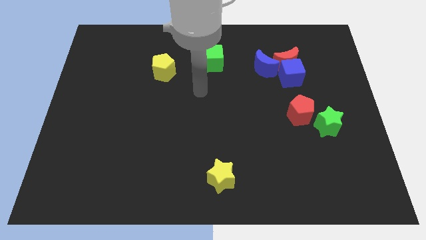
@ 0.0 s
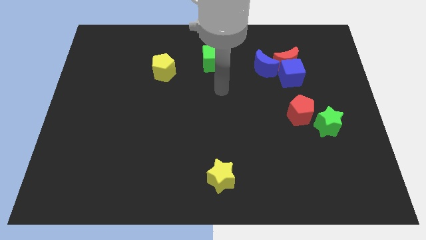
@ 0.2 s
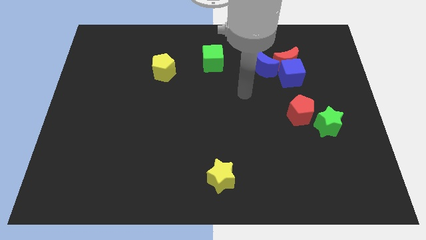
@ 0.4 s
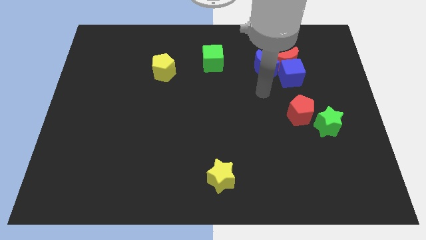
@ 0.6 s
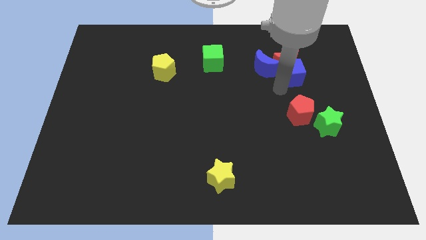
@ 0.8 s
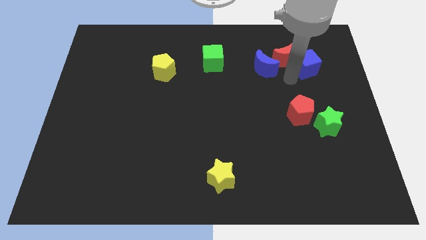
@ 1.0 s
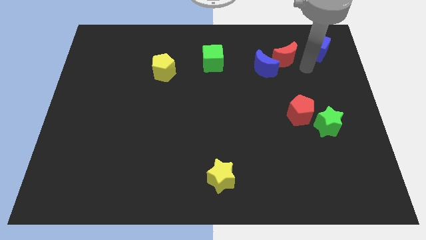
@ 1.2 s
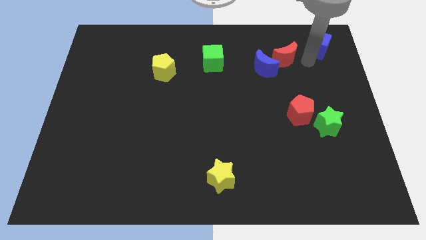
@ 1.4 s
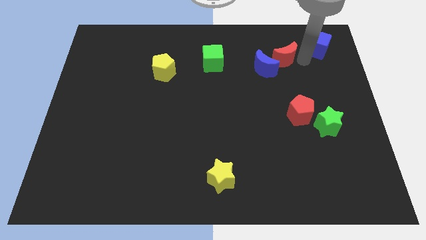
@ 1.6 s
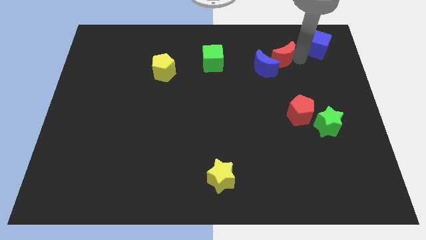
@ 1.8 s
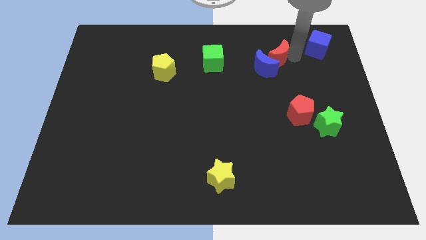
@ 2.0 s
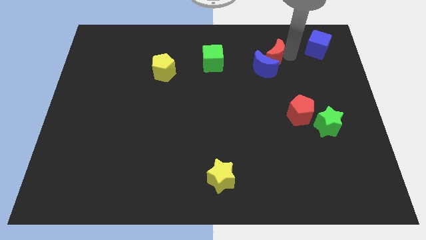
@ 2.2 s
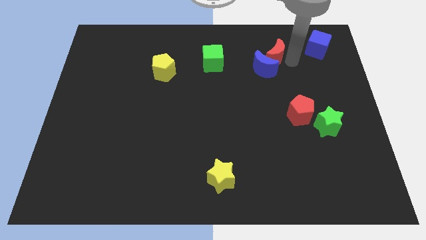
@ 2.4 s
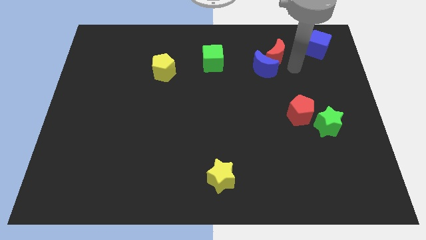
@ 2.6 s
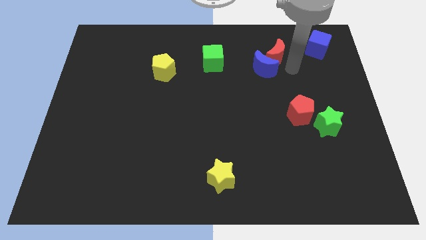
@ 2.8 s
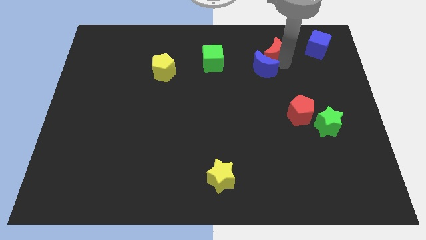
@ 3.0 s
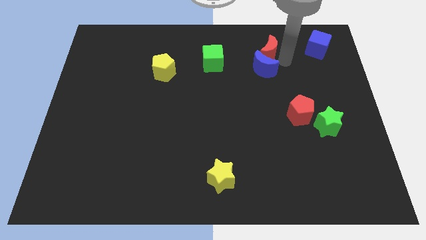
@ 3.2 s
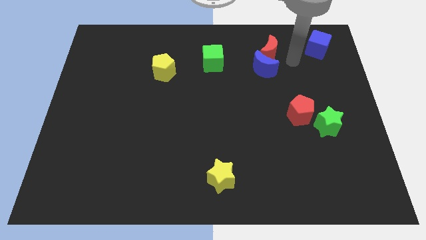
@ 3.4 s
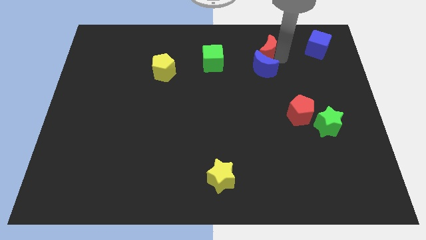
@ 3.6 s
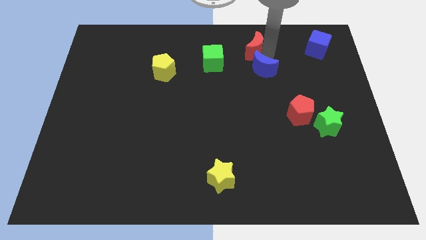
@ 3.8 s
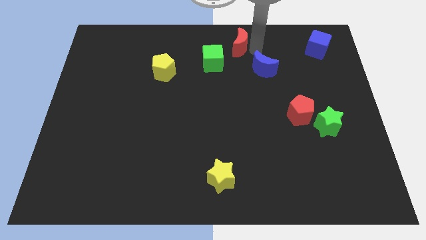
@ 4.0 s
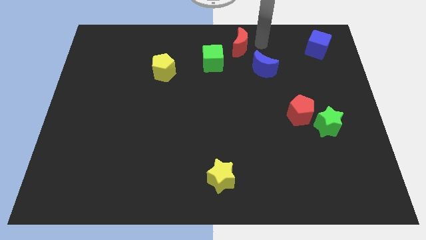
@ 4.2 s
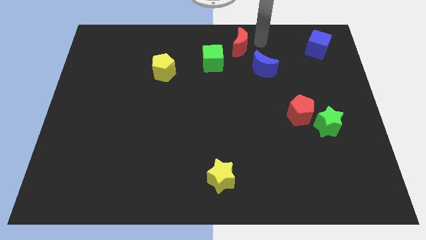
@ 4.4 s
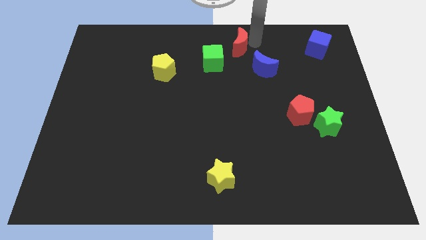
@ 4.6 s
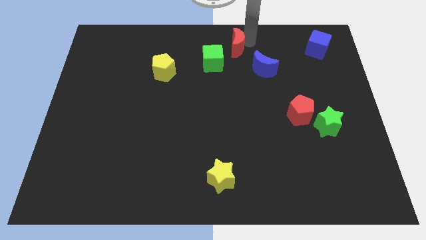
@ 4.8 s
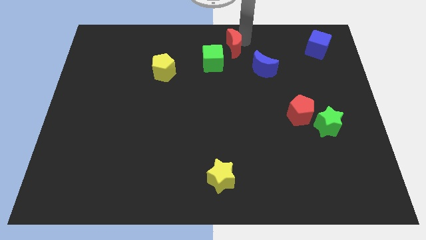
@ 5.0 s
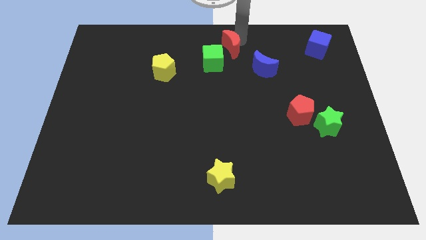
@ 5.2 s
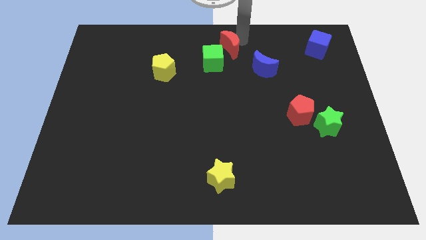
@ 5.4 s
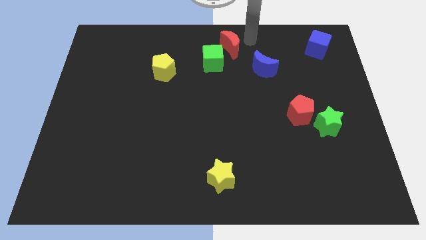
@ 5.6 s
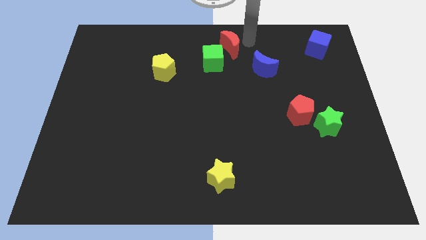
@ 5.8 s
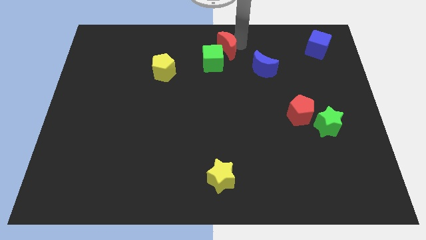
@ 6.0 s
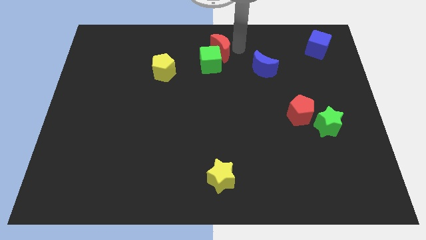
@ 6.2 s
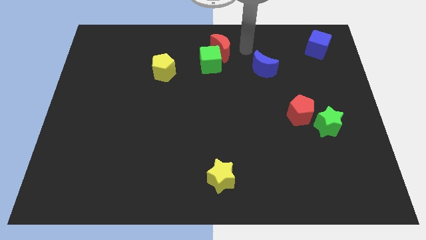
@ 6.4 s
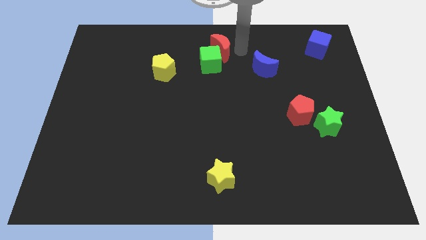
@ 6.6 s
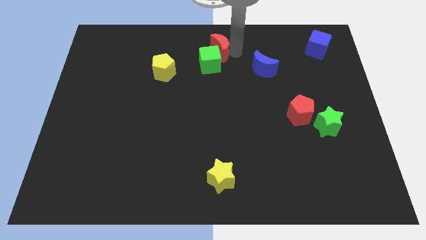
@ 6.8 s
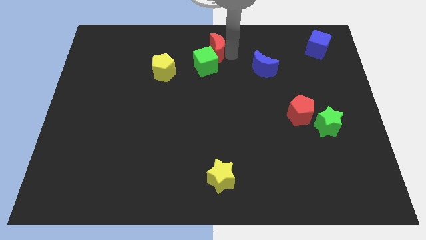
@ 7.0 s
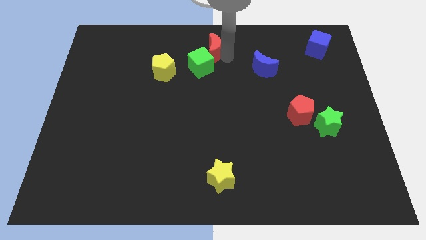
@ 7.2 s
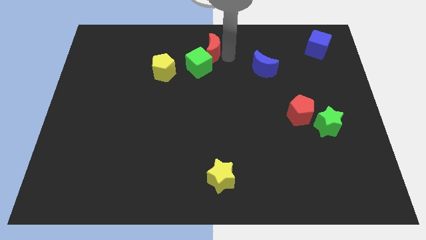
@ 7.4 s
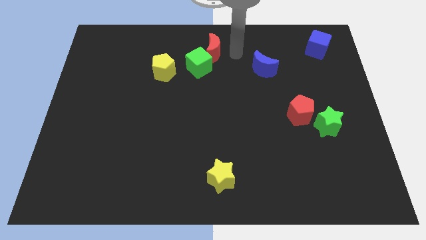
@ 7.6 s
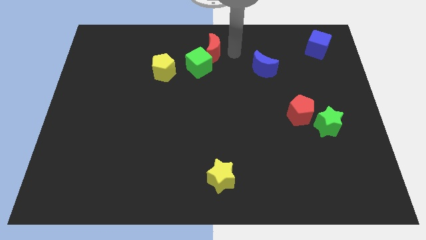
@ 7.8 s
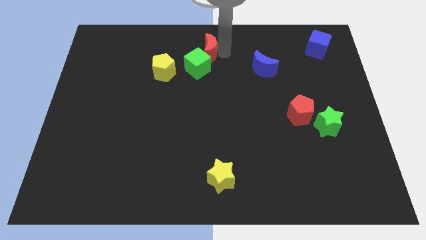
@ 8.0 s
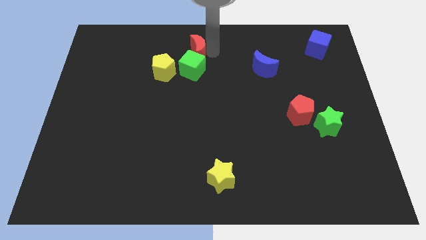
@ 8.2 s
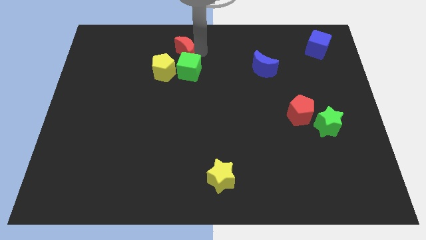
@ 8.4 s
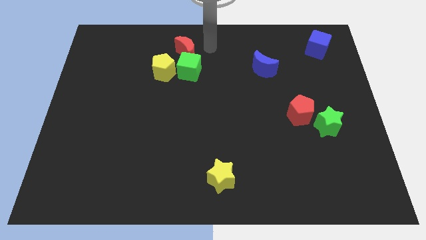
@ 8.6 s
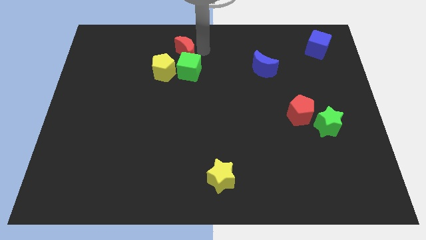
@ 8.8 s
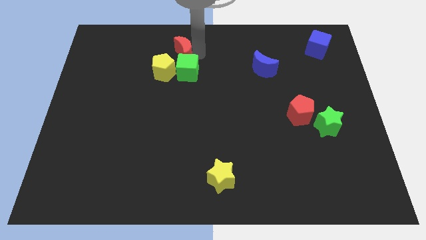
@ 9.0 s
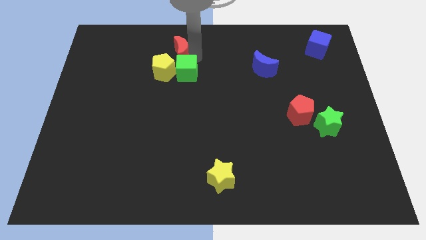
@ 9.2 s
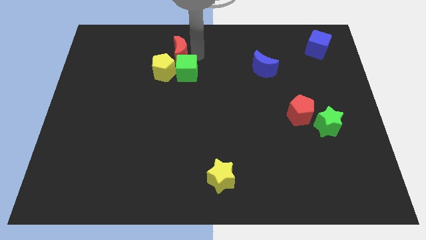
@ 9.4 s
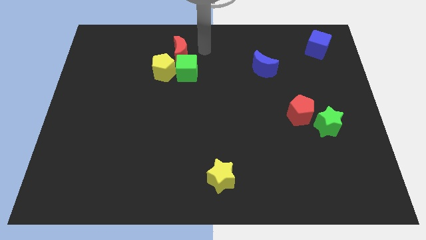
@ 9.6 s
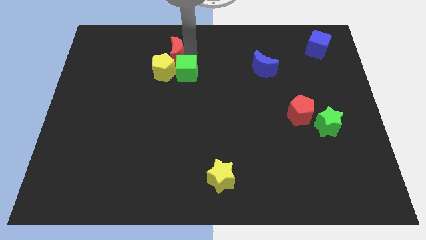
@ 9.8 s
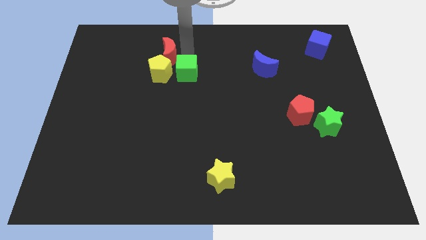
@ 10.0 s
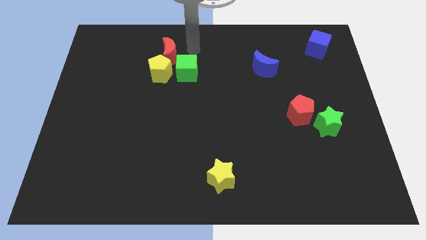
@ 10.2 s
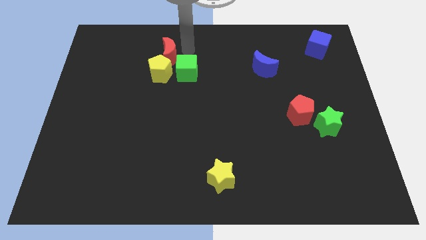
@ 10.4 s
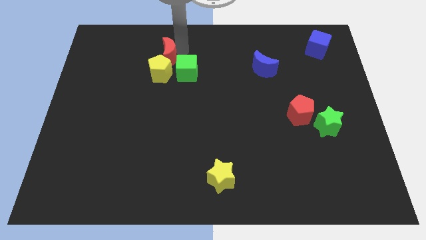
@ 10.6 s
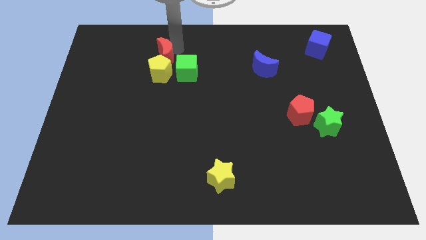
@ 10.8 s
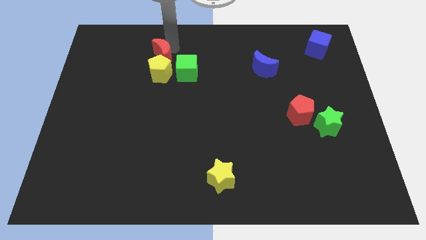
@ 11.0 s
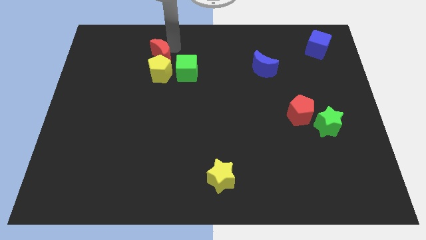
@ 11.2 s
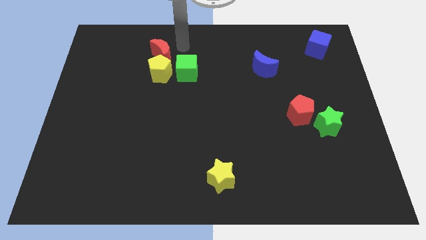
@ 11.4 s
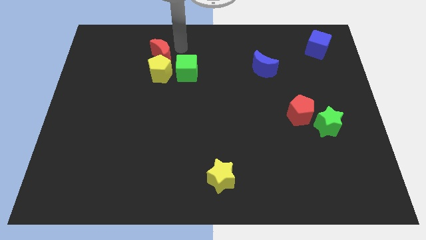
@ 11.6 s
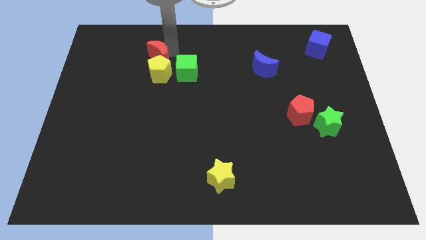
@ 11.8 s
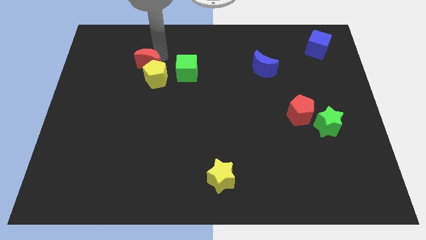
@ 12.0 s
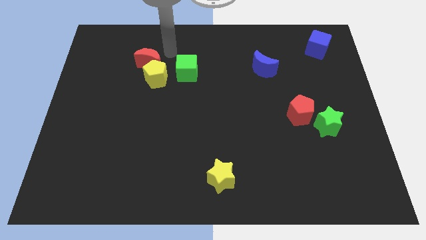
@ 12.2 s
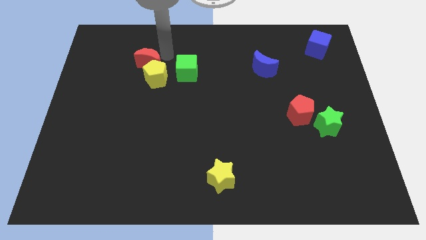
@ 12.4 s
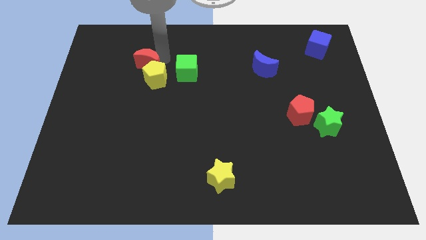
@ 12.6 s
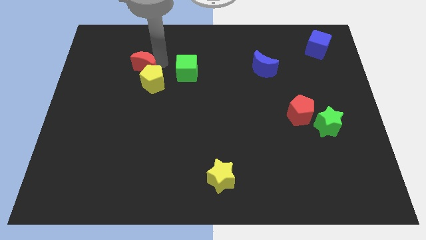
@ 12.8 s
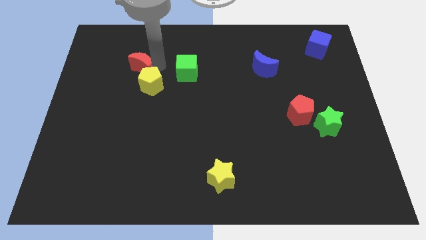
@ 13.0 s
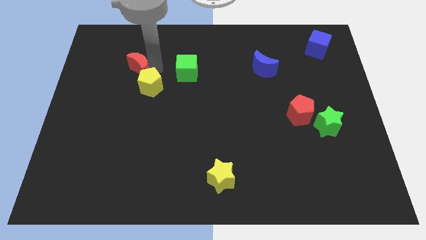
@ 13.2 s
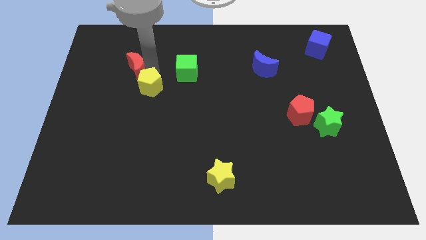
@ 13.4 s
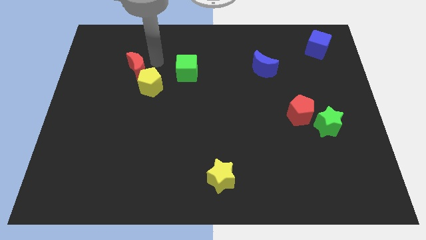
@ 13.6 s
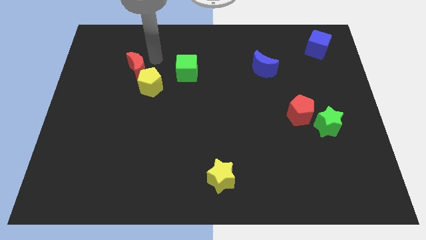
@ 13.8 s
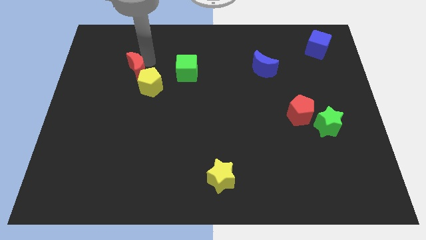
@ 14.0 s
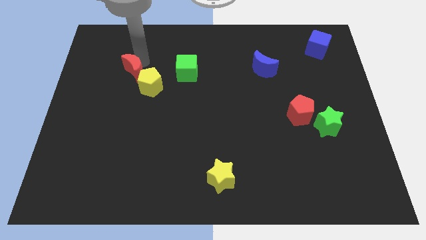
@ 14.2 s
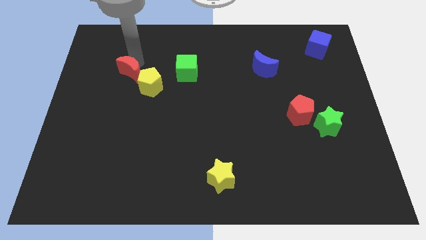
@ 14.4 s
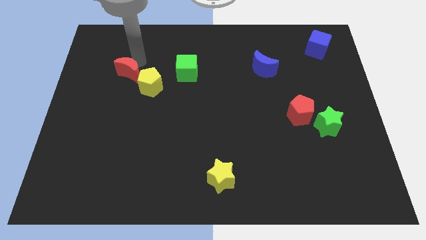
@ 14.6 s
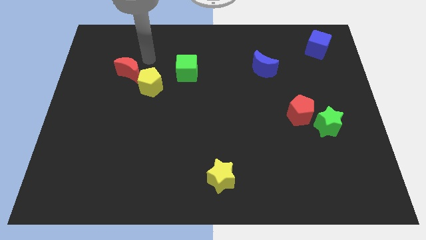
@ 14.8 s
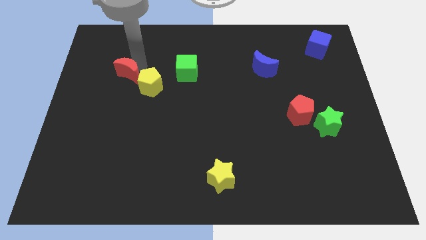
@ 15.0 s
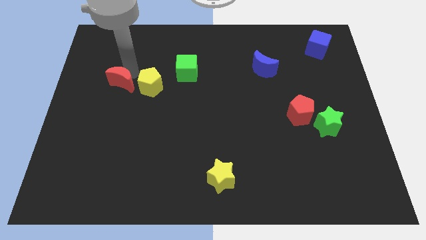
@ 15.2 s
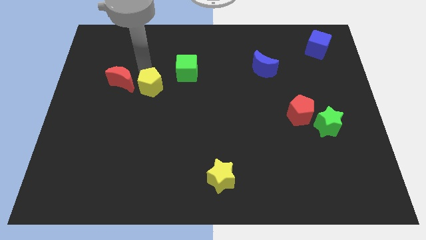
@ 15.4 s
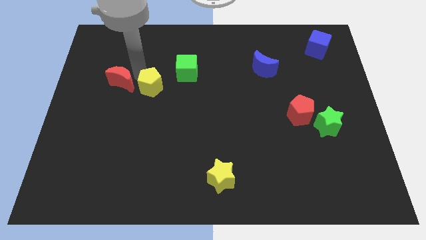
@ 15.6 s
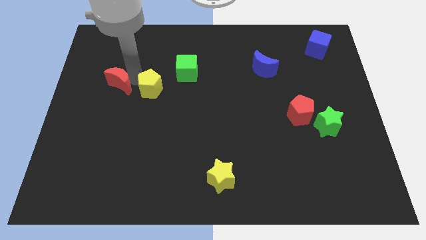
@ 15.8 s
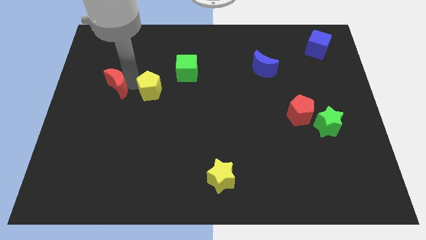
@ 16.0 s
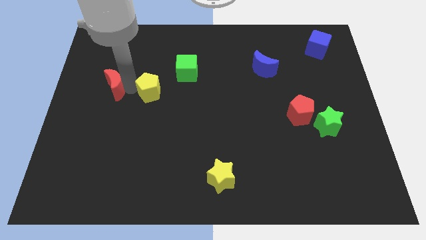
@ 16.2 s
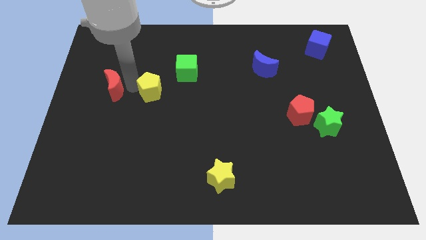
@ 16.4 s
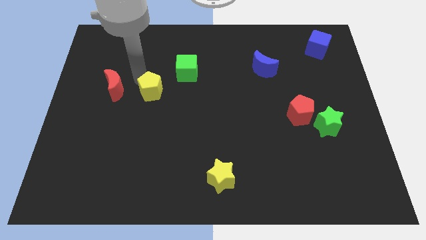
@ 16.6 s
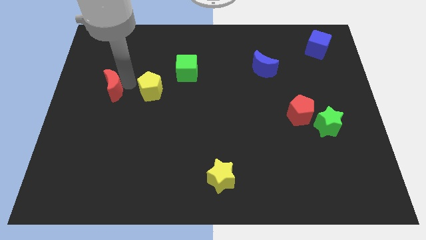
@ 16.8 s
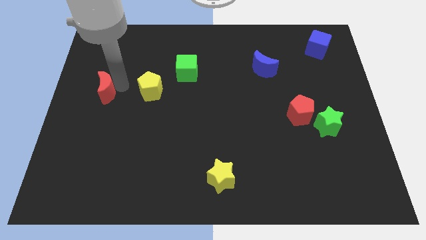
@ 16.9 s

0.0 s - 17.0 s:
slide the red moon to the left side
